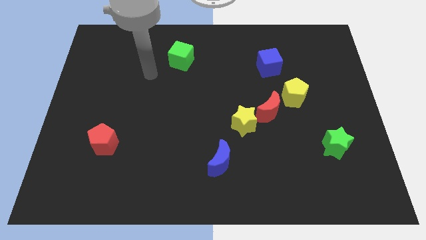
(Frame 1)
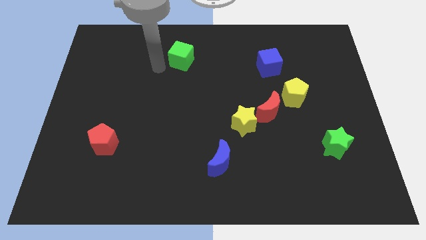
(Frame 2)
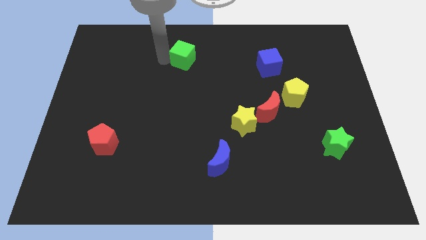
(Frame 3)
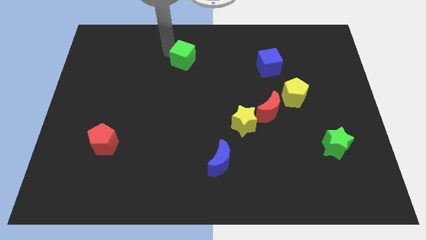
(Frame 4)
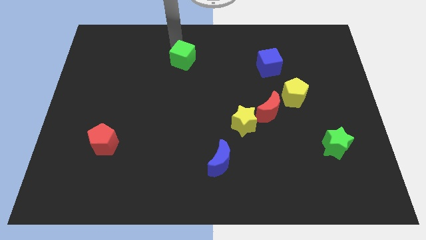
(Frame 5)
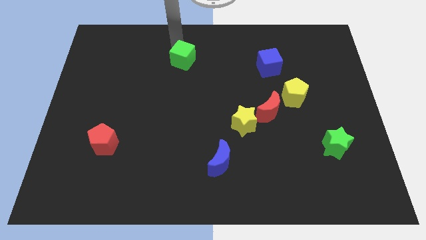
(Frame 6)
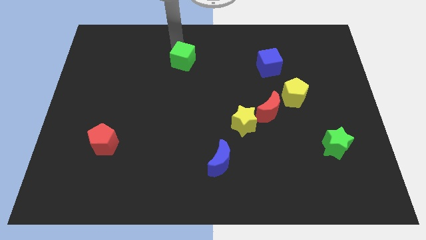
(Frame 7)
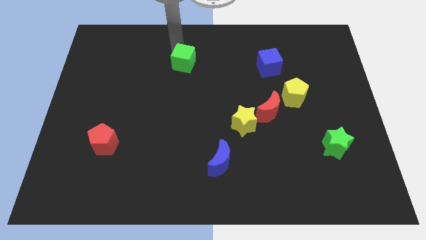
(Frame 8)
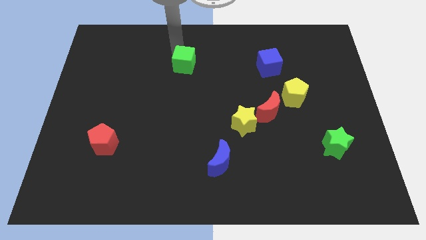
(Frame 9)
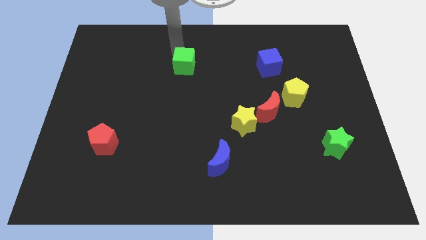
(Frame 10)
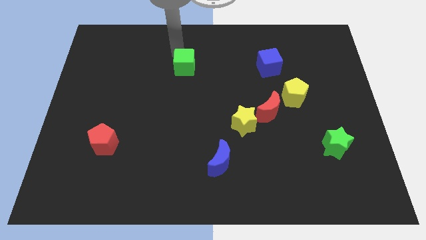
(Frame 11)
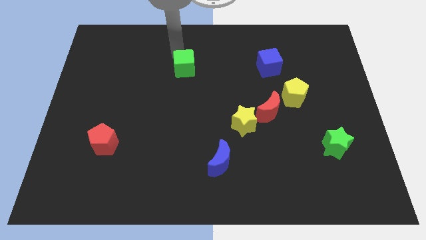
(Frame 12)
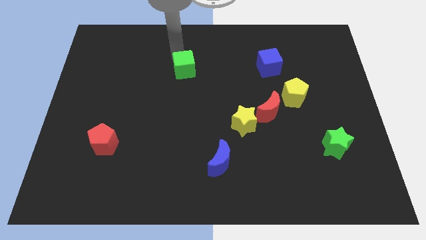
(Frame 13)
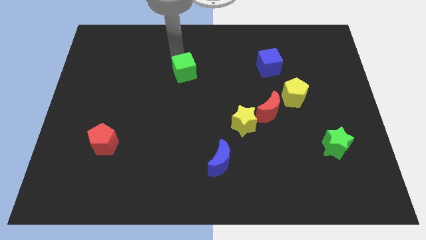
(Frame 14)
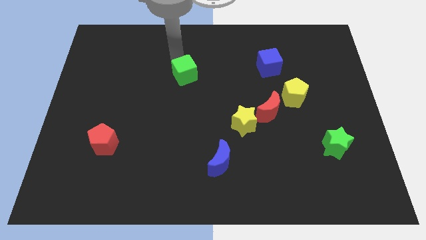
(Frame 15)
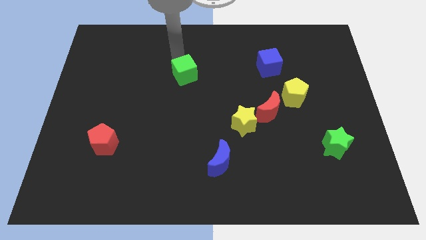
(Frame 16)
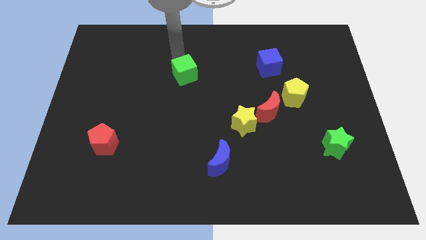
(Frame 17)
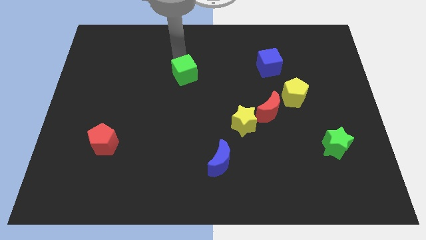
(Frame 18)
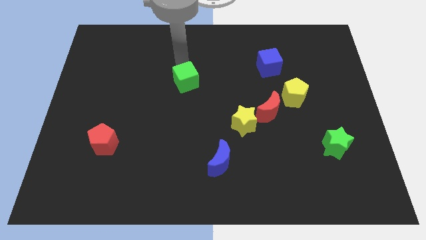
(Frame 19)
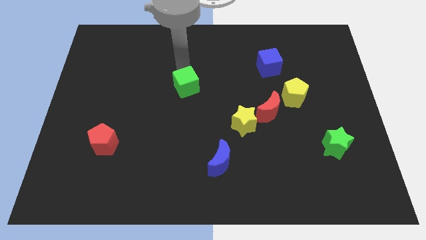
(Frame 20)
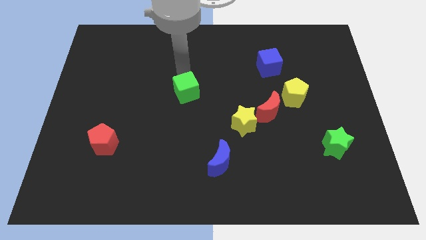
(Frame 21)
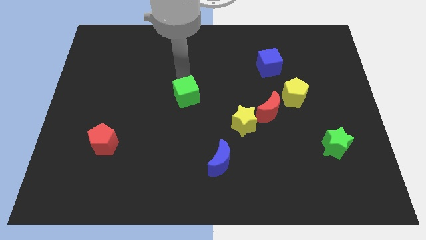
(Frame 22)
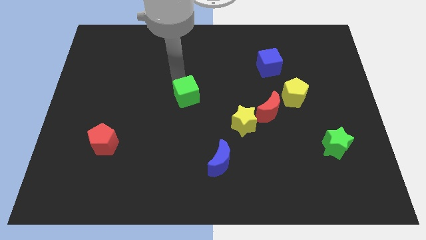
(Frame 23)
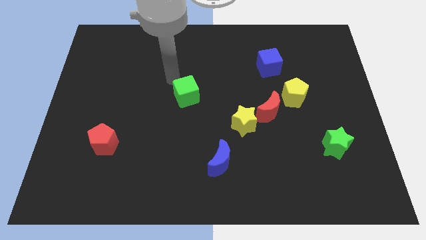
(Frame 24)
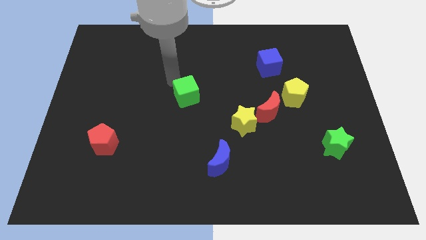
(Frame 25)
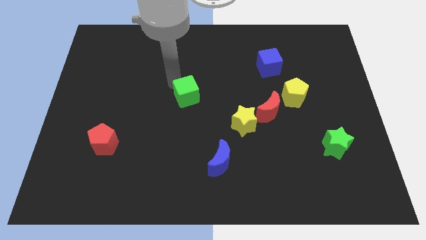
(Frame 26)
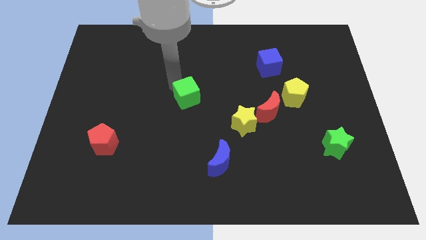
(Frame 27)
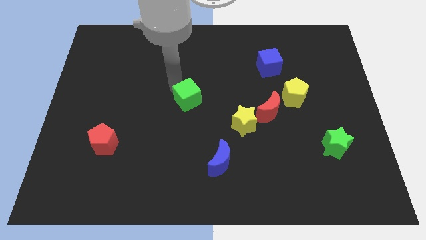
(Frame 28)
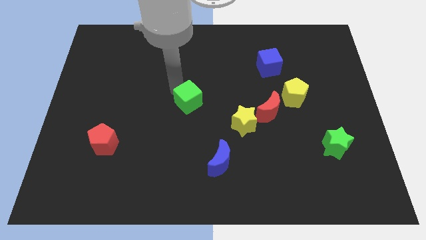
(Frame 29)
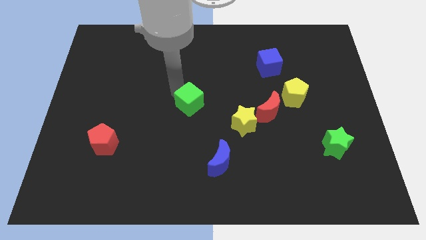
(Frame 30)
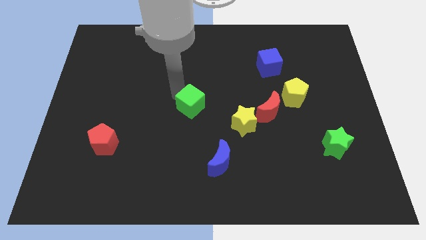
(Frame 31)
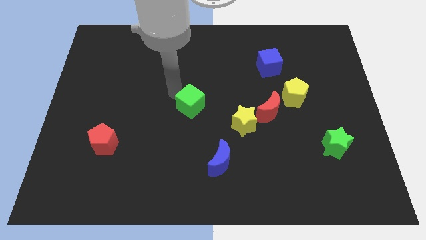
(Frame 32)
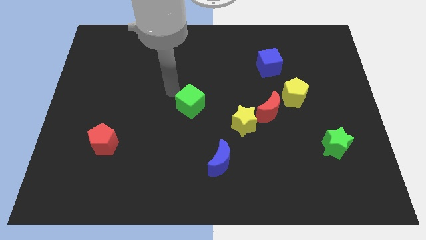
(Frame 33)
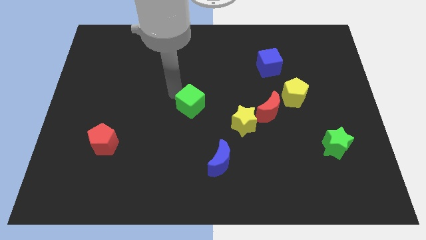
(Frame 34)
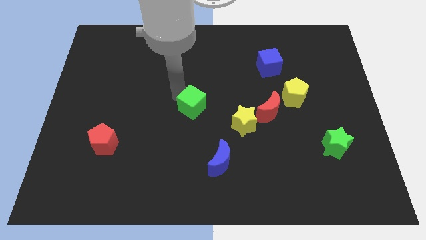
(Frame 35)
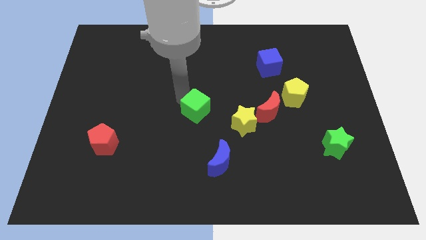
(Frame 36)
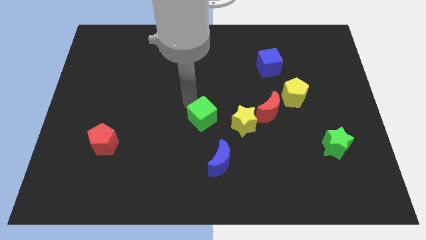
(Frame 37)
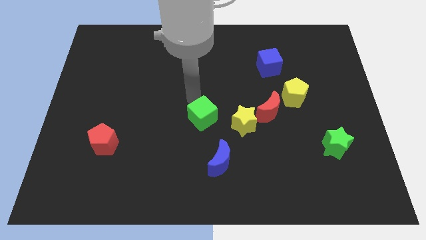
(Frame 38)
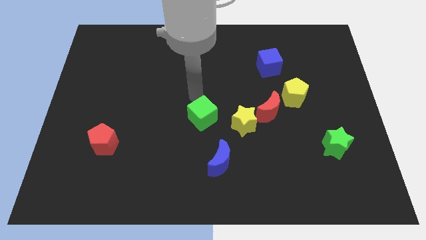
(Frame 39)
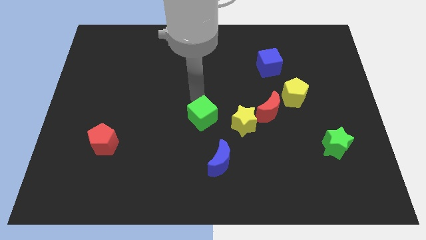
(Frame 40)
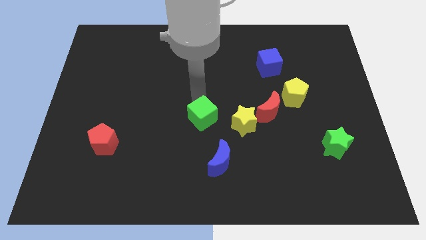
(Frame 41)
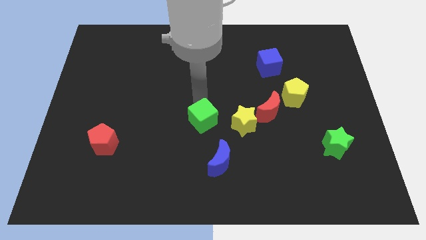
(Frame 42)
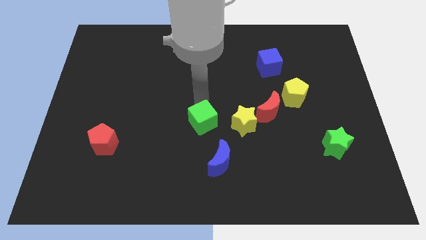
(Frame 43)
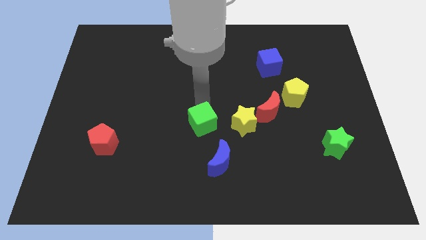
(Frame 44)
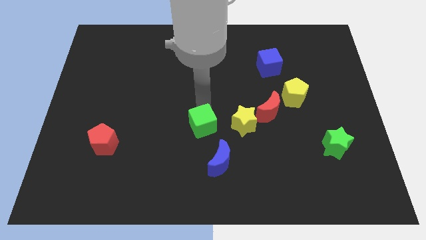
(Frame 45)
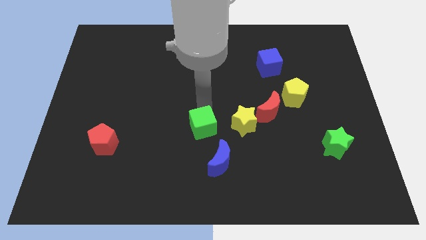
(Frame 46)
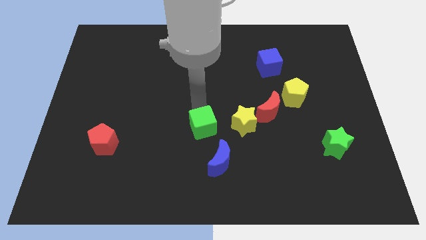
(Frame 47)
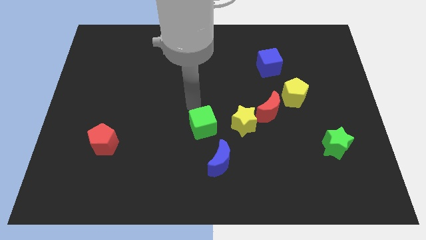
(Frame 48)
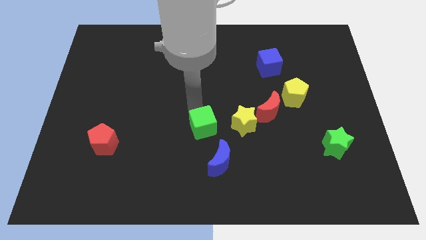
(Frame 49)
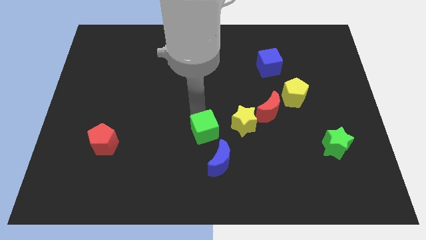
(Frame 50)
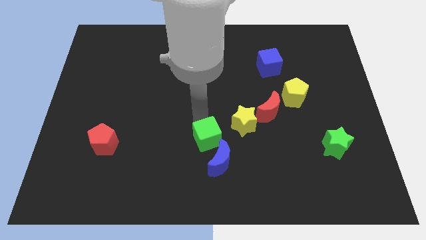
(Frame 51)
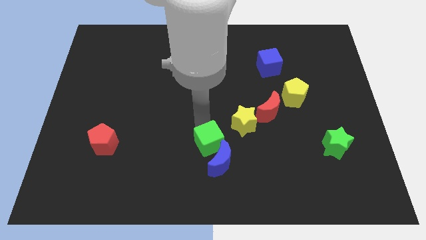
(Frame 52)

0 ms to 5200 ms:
slide the green cube to the blue moon

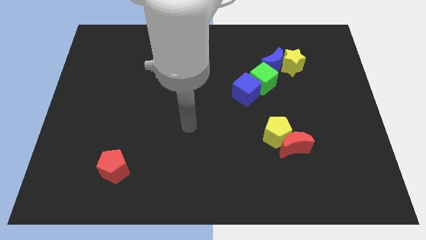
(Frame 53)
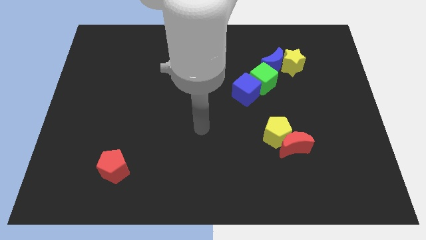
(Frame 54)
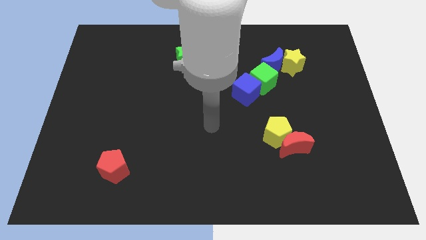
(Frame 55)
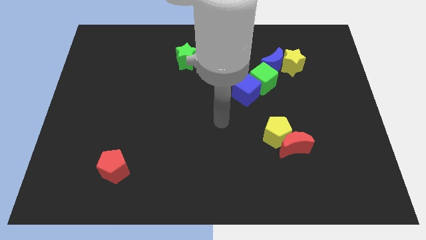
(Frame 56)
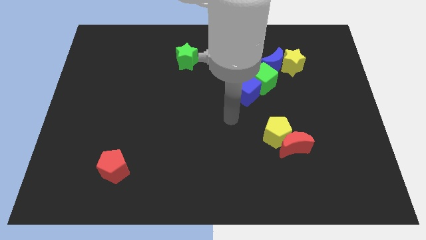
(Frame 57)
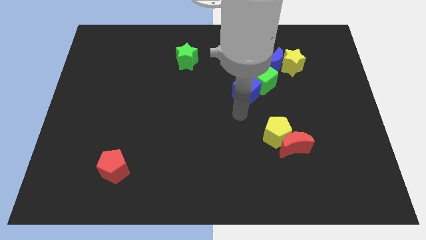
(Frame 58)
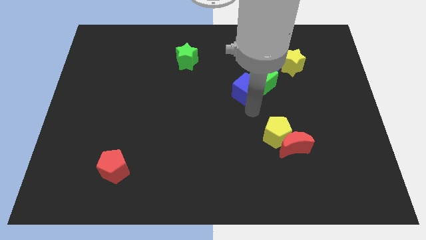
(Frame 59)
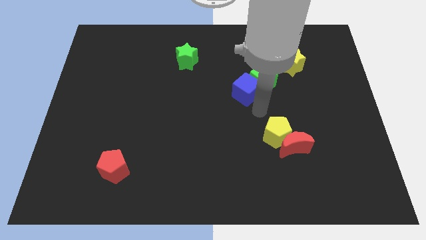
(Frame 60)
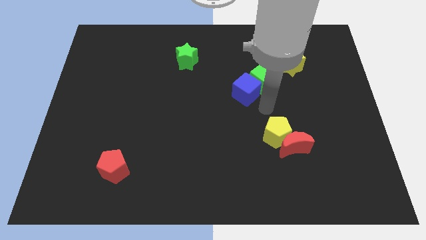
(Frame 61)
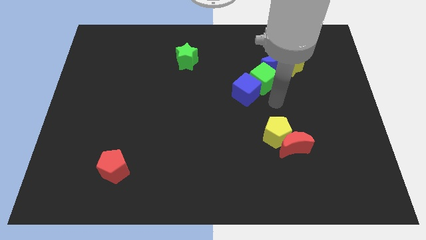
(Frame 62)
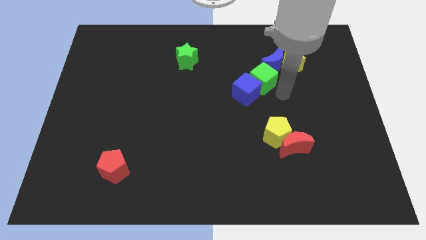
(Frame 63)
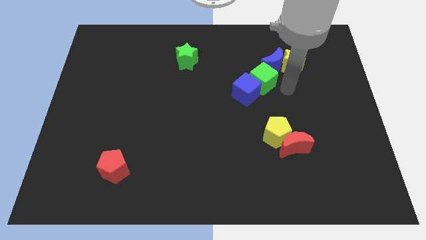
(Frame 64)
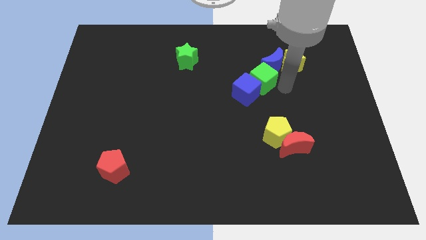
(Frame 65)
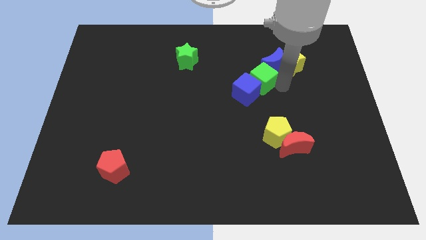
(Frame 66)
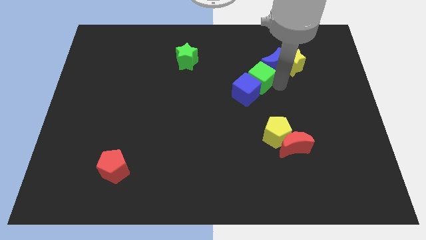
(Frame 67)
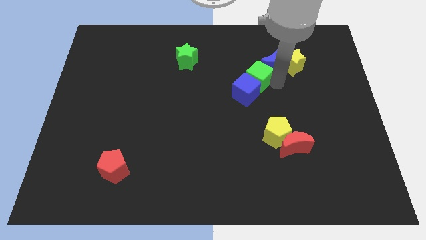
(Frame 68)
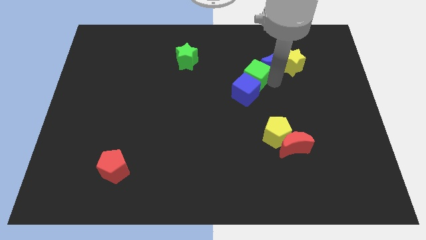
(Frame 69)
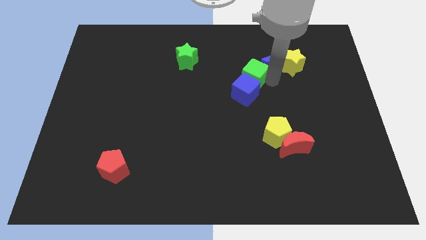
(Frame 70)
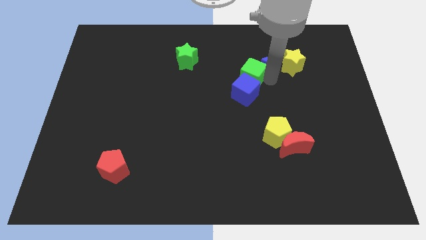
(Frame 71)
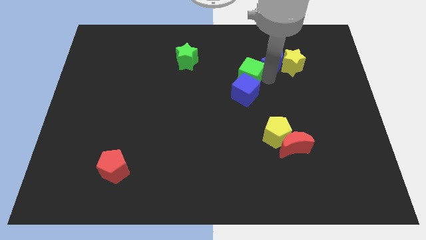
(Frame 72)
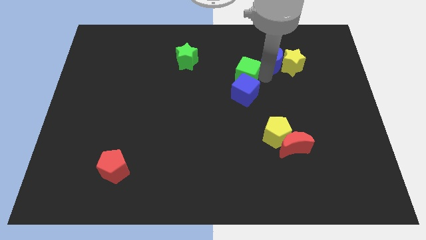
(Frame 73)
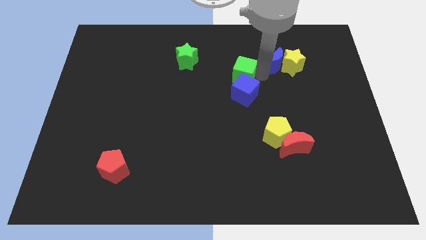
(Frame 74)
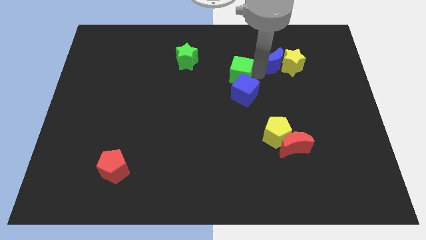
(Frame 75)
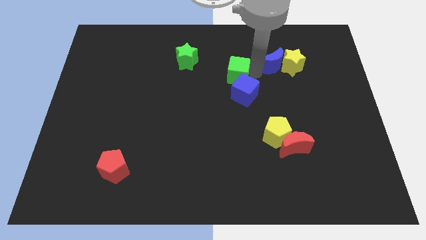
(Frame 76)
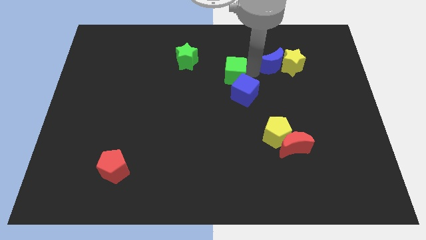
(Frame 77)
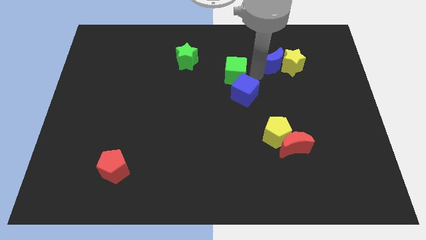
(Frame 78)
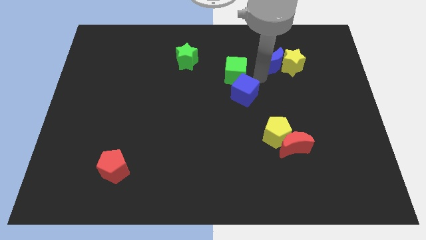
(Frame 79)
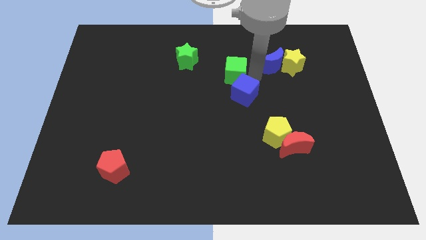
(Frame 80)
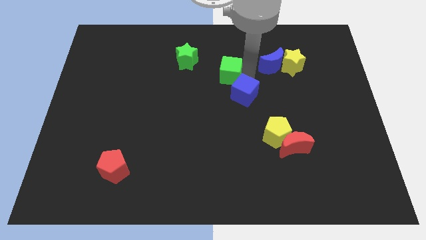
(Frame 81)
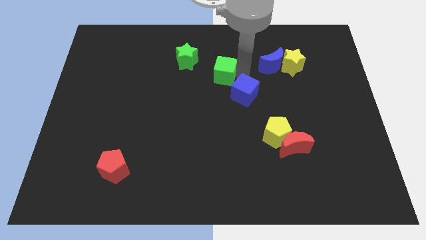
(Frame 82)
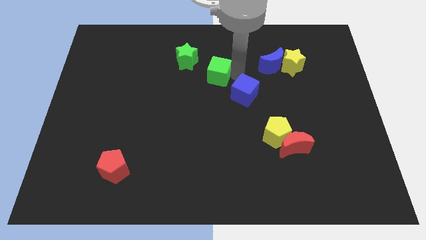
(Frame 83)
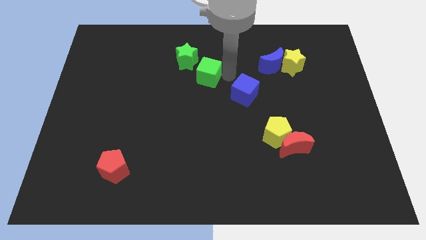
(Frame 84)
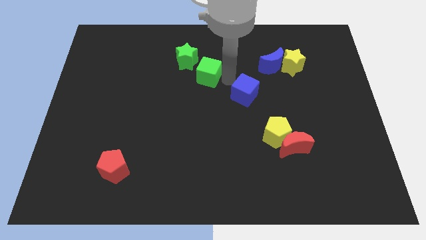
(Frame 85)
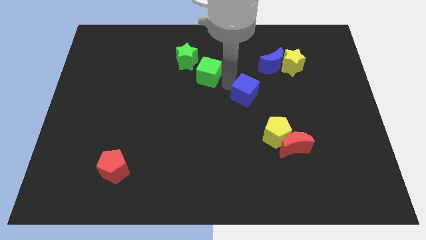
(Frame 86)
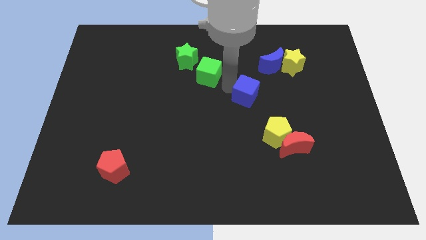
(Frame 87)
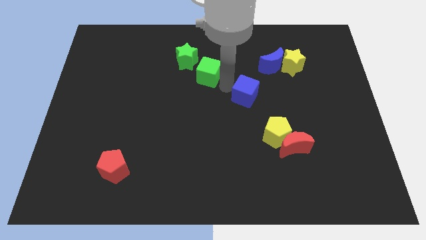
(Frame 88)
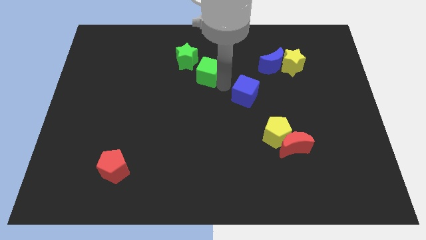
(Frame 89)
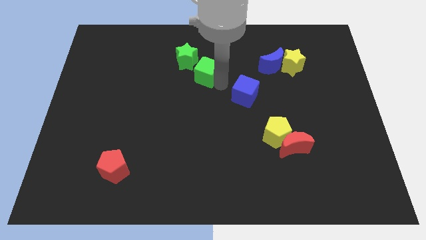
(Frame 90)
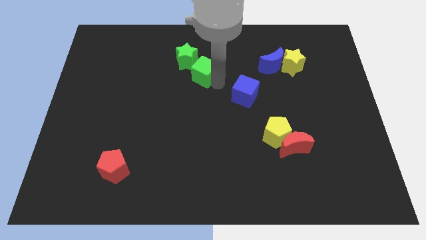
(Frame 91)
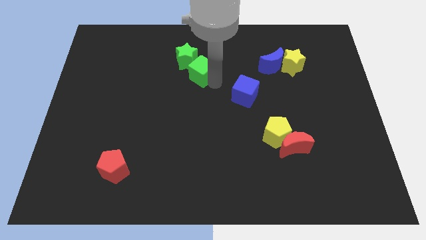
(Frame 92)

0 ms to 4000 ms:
put the green cube to the green star
